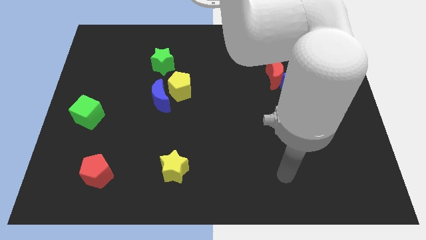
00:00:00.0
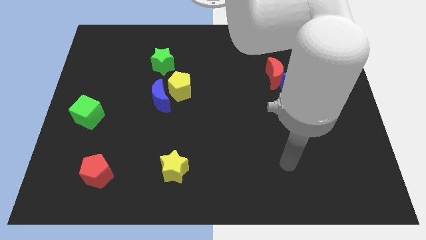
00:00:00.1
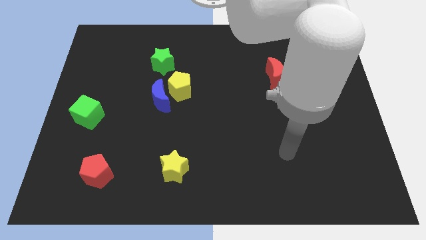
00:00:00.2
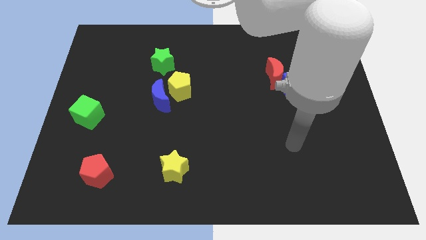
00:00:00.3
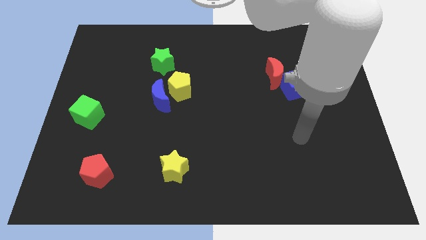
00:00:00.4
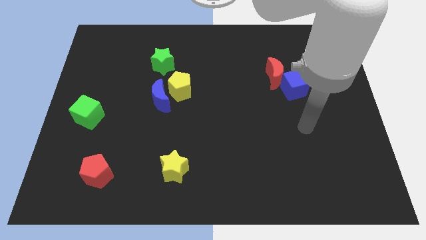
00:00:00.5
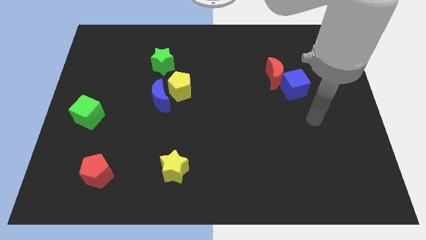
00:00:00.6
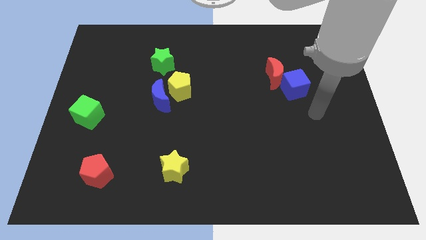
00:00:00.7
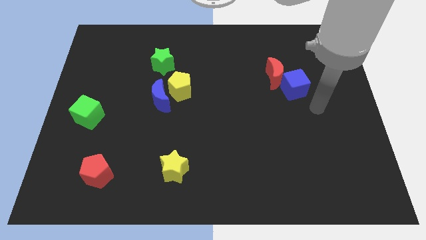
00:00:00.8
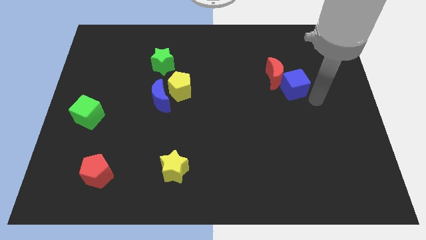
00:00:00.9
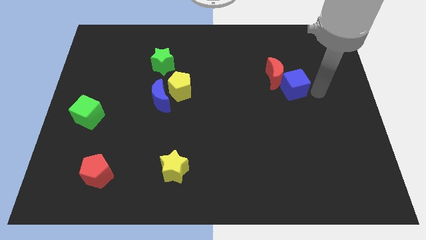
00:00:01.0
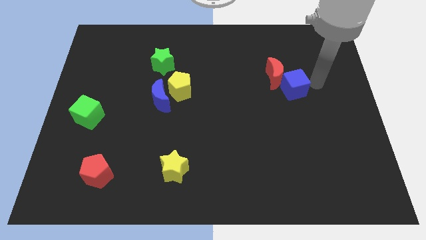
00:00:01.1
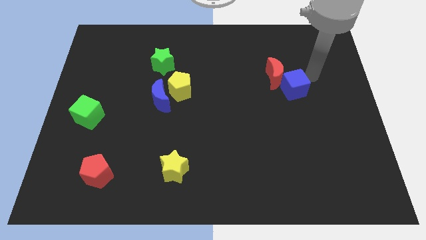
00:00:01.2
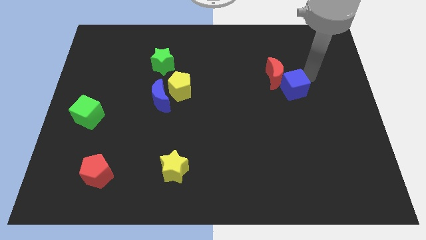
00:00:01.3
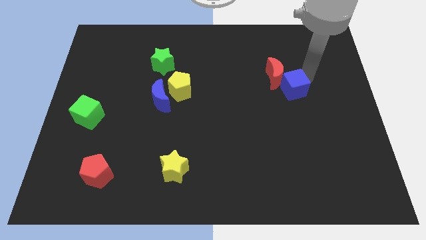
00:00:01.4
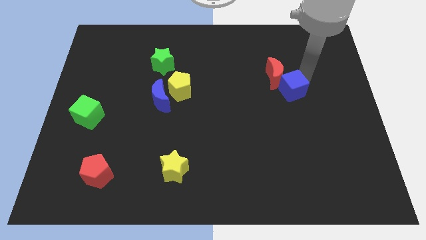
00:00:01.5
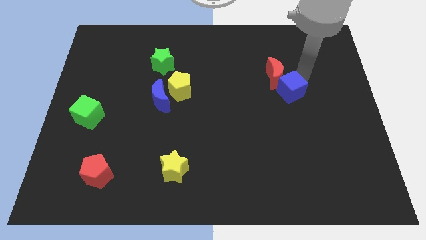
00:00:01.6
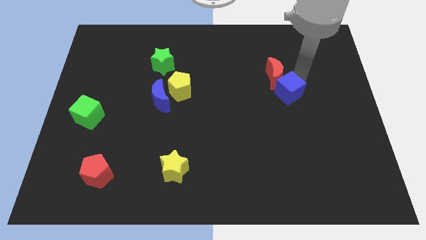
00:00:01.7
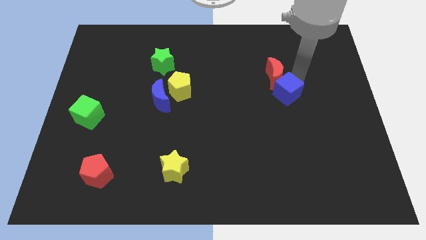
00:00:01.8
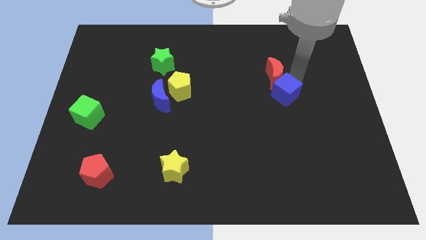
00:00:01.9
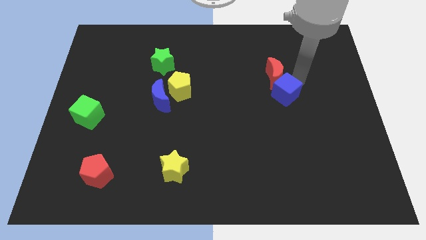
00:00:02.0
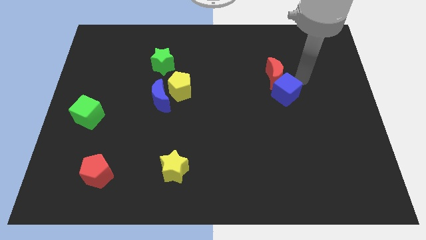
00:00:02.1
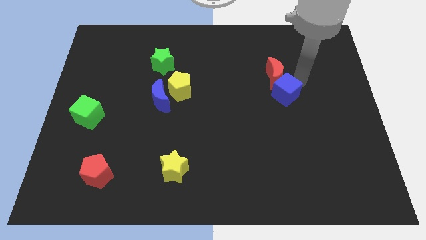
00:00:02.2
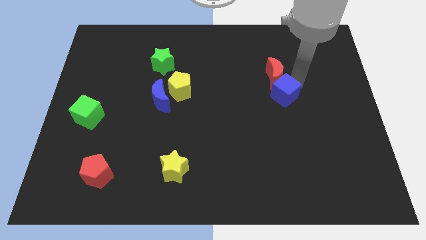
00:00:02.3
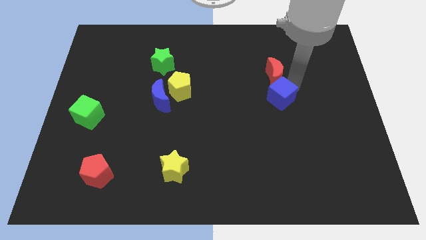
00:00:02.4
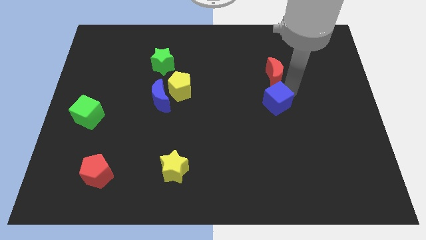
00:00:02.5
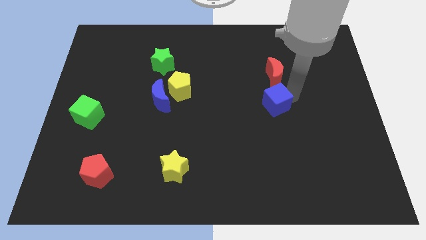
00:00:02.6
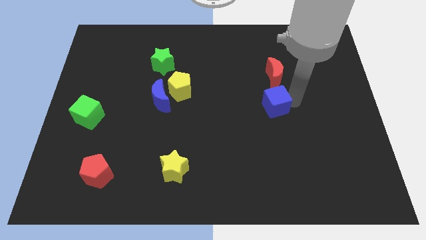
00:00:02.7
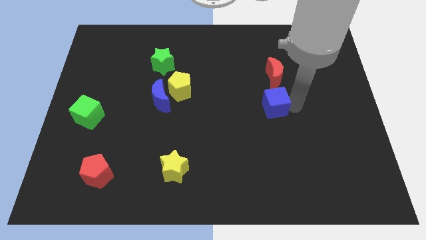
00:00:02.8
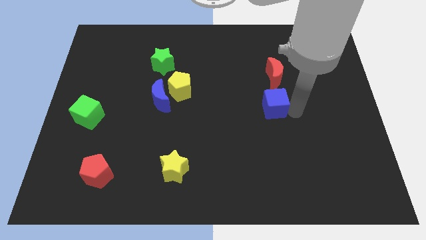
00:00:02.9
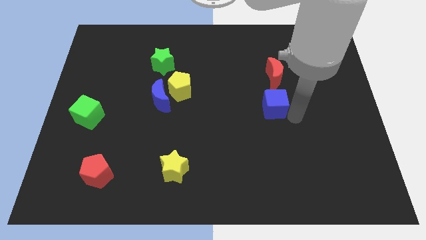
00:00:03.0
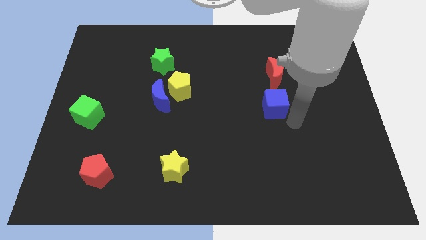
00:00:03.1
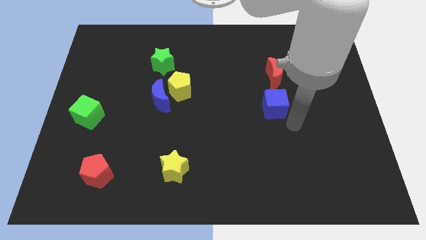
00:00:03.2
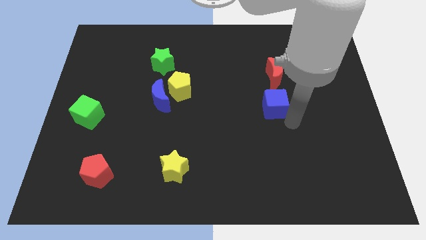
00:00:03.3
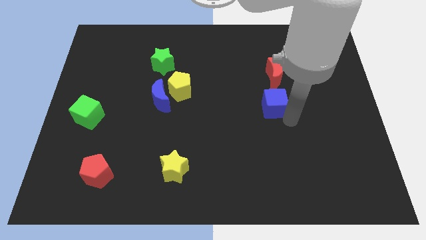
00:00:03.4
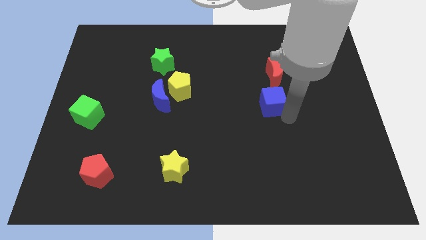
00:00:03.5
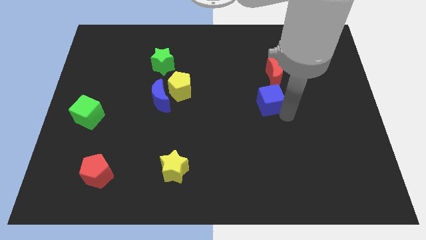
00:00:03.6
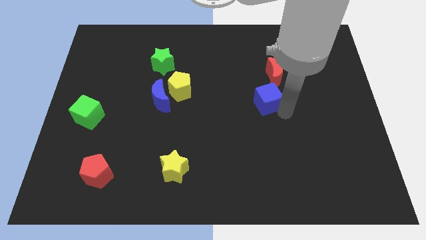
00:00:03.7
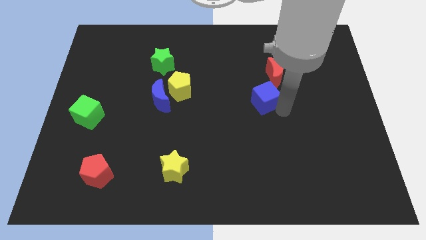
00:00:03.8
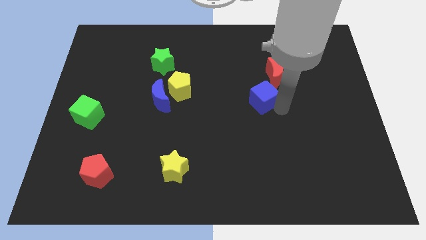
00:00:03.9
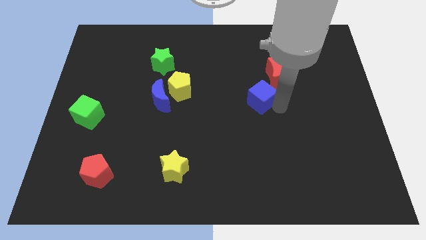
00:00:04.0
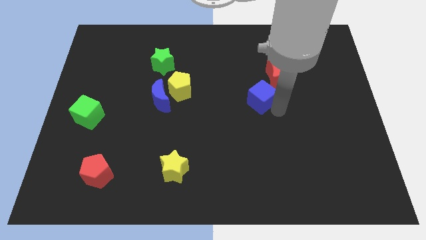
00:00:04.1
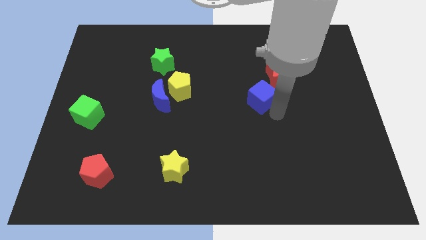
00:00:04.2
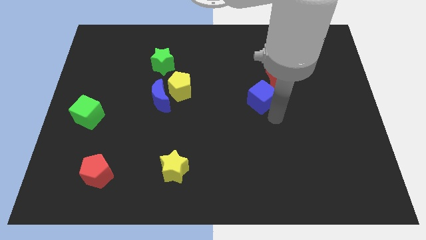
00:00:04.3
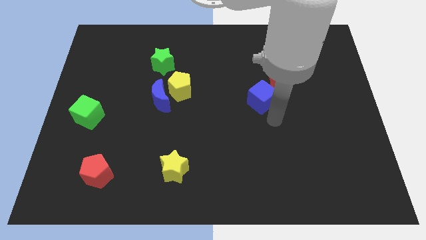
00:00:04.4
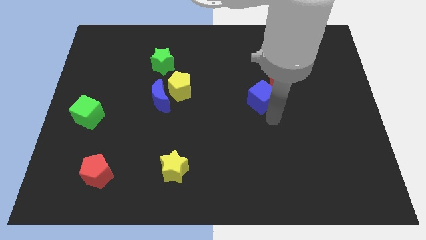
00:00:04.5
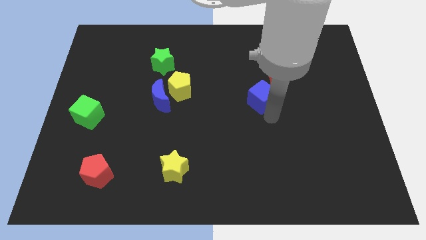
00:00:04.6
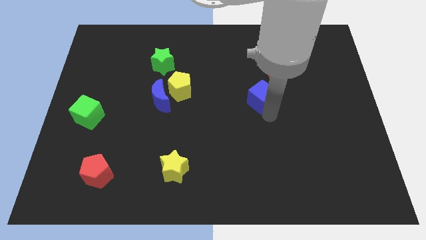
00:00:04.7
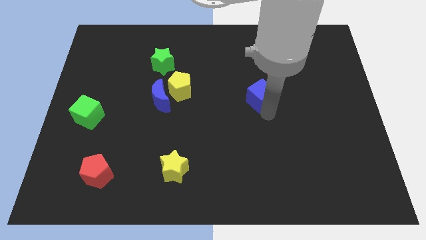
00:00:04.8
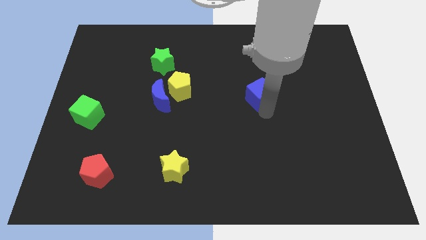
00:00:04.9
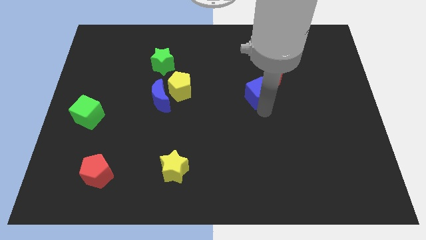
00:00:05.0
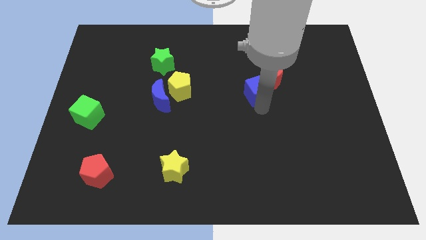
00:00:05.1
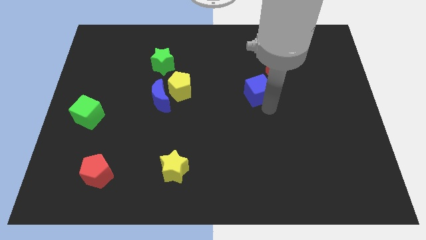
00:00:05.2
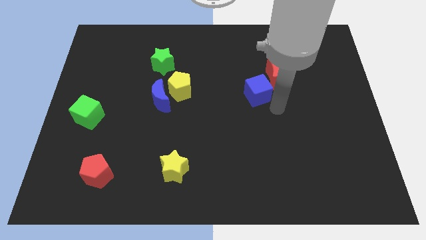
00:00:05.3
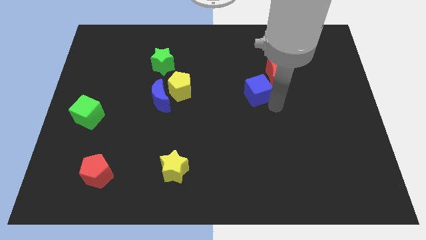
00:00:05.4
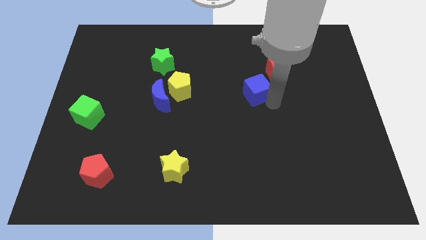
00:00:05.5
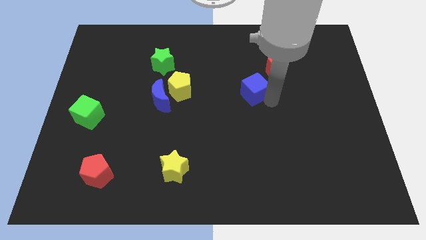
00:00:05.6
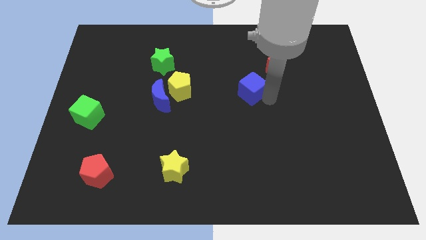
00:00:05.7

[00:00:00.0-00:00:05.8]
put the blue cube to the left of the red moon

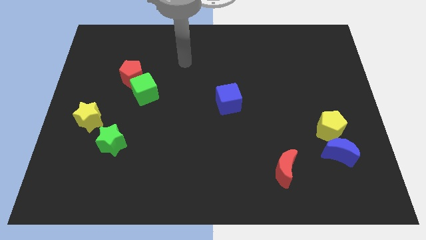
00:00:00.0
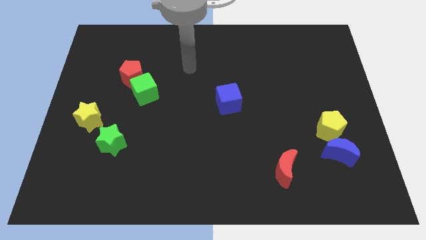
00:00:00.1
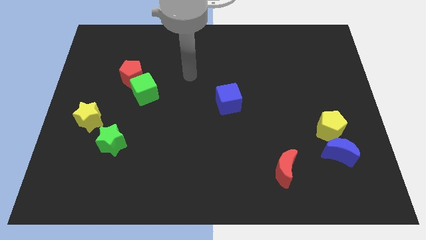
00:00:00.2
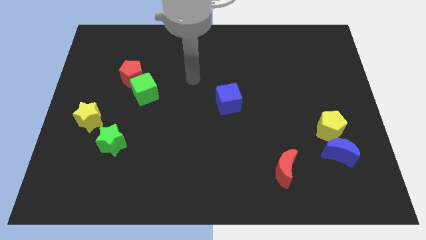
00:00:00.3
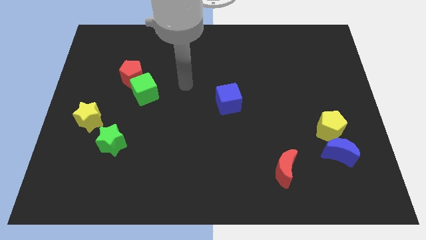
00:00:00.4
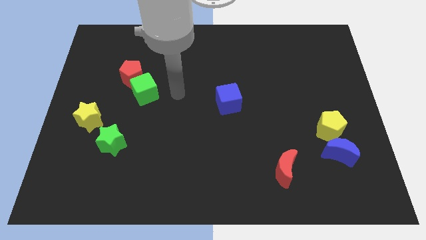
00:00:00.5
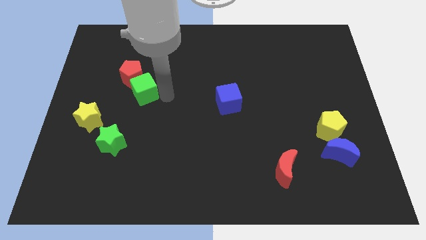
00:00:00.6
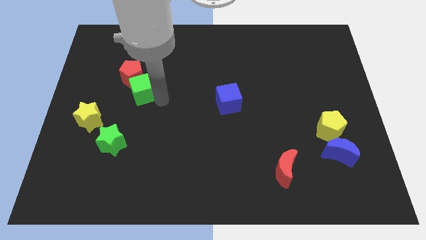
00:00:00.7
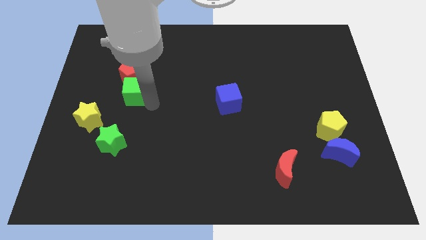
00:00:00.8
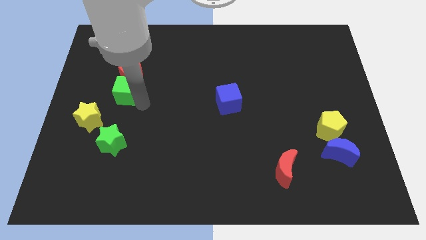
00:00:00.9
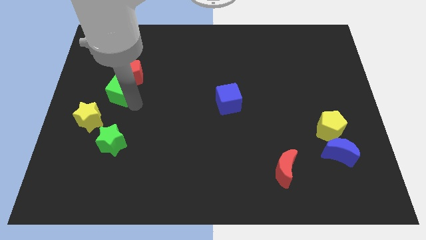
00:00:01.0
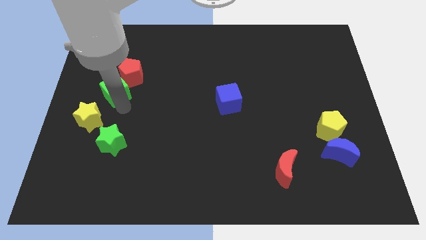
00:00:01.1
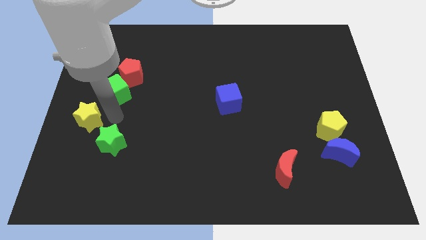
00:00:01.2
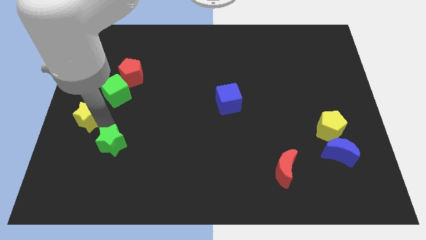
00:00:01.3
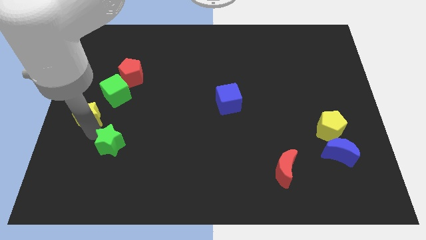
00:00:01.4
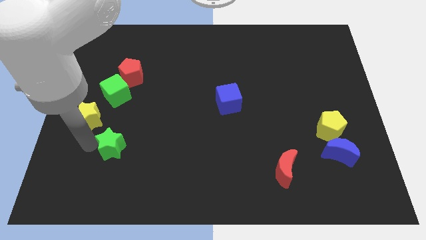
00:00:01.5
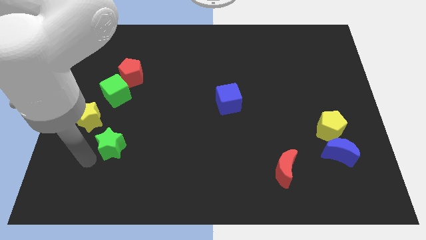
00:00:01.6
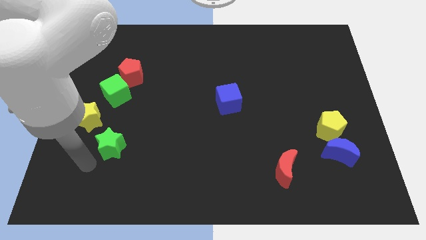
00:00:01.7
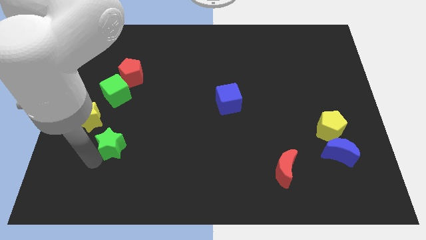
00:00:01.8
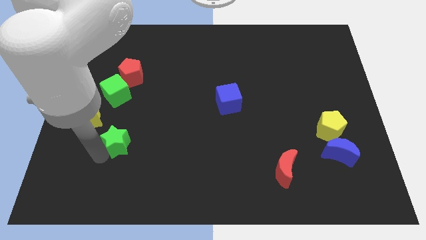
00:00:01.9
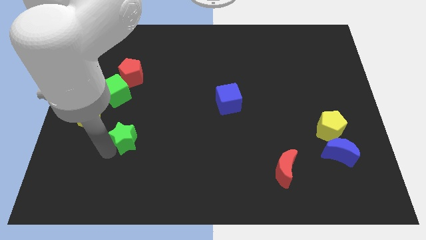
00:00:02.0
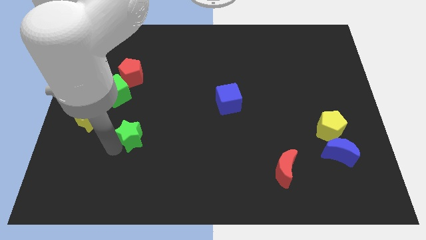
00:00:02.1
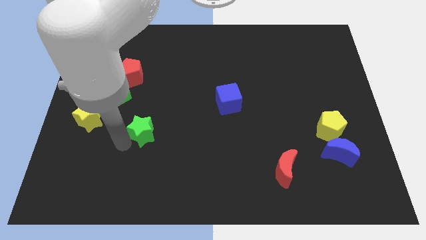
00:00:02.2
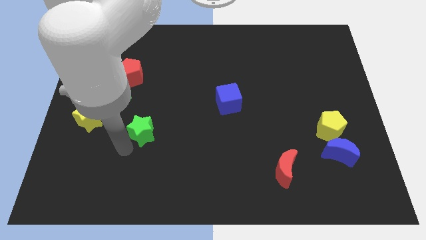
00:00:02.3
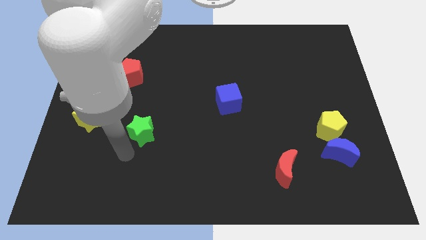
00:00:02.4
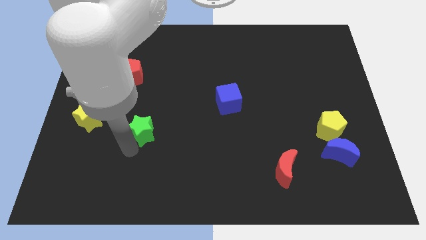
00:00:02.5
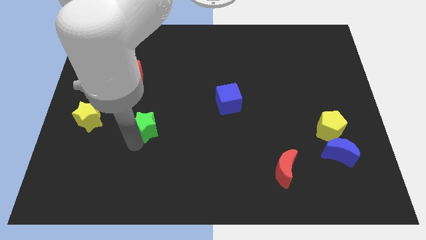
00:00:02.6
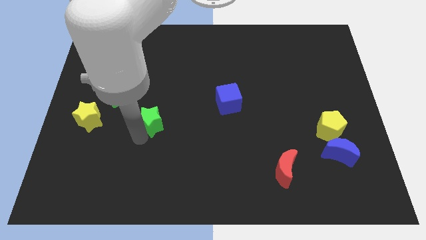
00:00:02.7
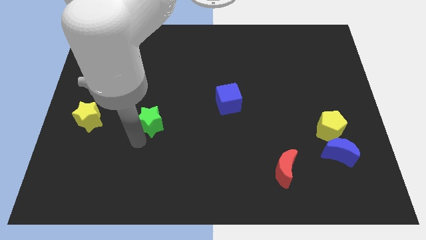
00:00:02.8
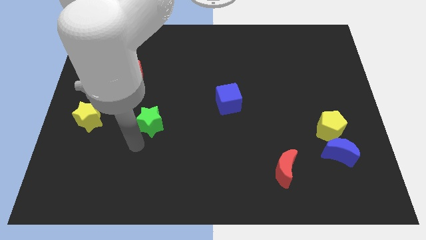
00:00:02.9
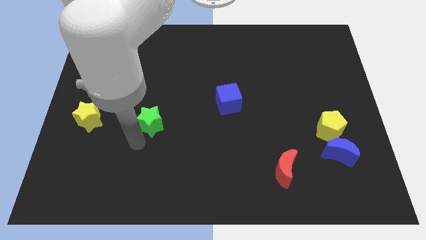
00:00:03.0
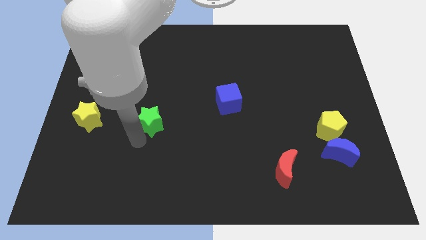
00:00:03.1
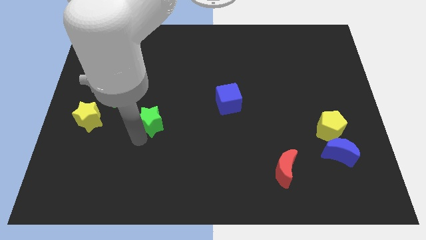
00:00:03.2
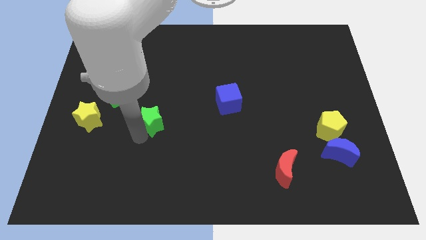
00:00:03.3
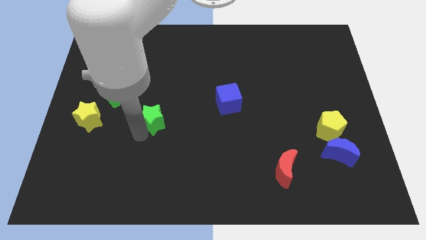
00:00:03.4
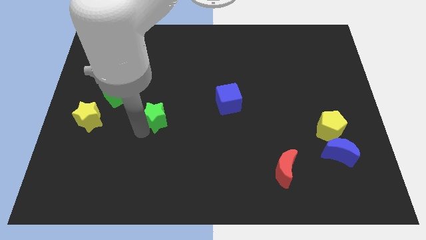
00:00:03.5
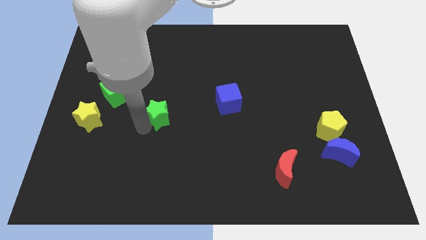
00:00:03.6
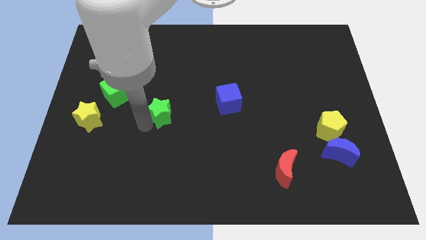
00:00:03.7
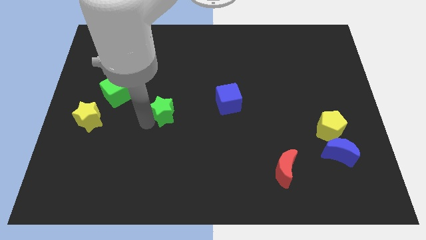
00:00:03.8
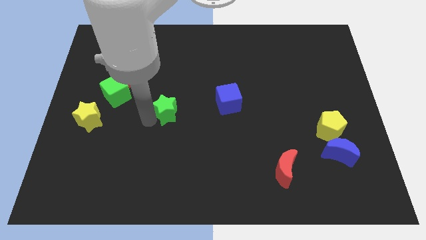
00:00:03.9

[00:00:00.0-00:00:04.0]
push the green star to the left of the blue cube
